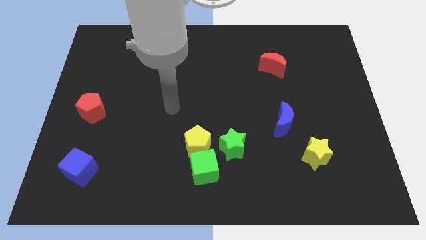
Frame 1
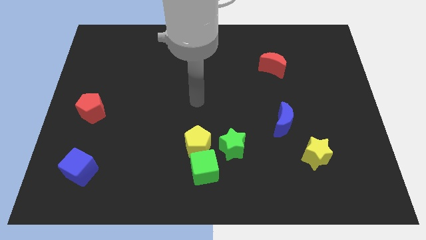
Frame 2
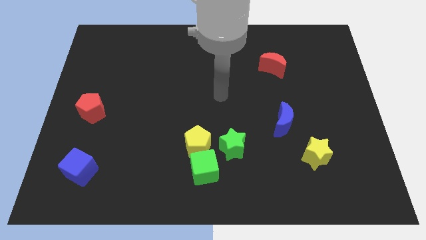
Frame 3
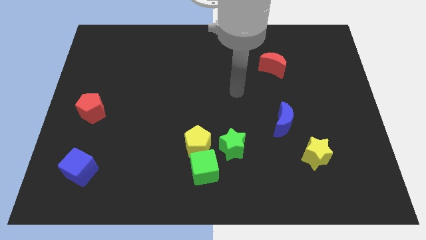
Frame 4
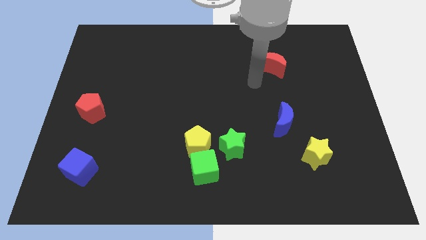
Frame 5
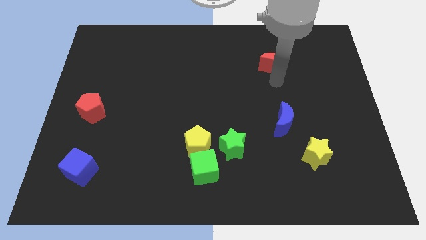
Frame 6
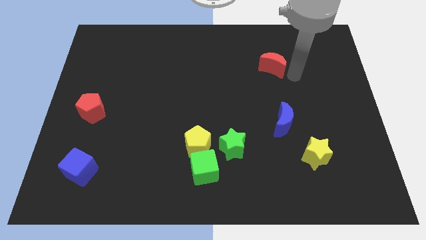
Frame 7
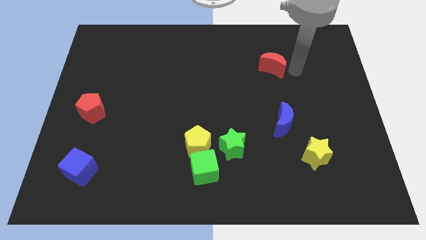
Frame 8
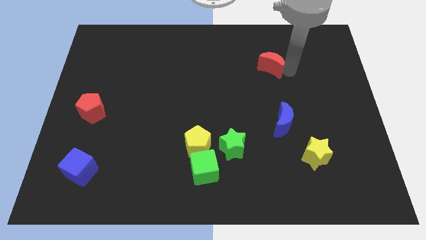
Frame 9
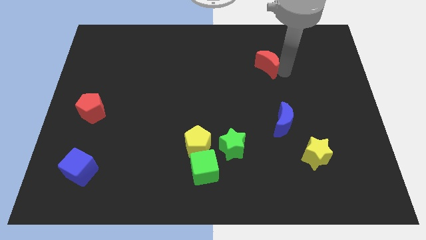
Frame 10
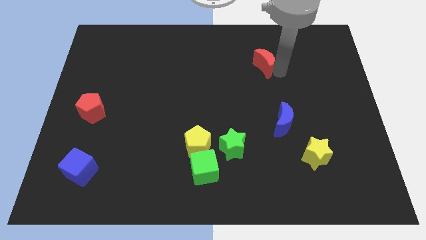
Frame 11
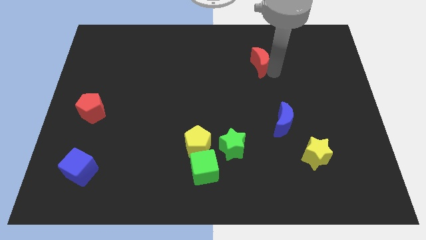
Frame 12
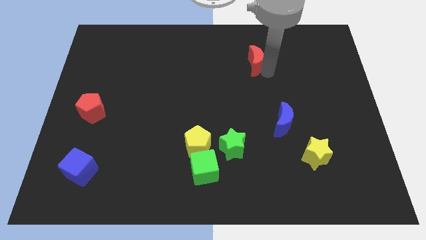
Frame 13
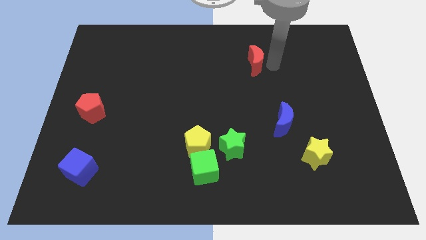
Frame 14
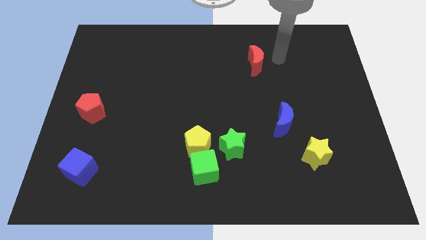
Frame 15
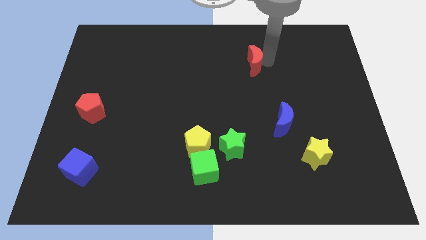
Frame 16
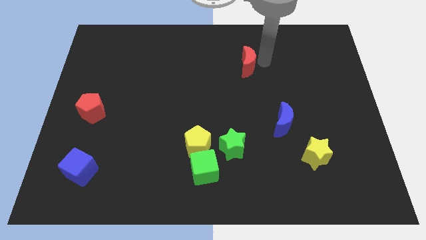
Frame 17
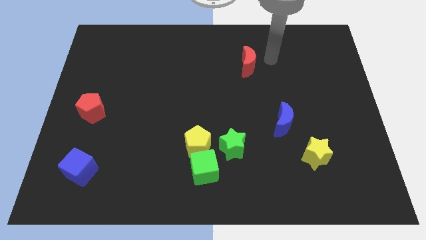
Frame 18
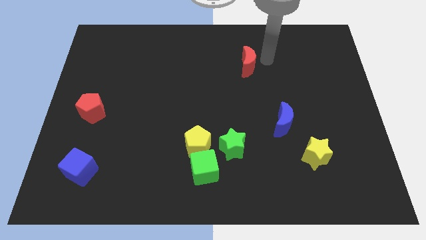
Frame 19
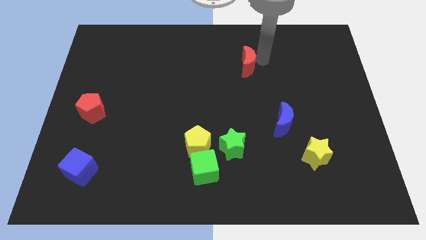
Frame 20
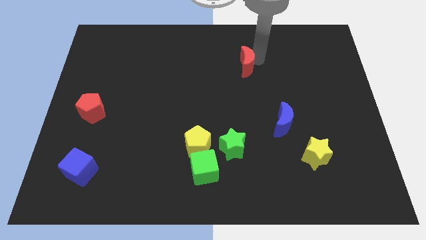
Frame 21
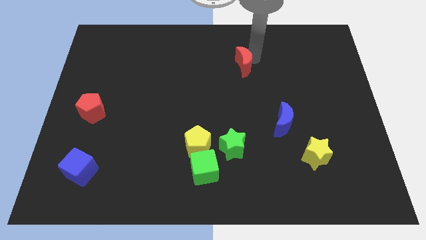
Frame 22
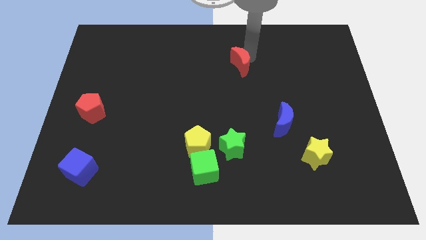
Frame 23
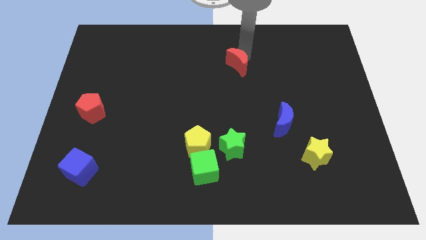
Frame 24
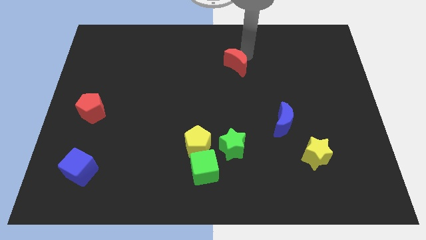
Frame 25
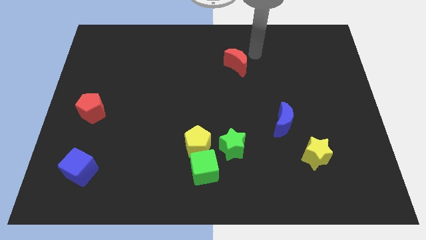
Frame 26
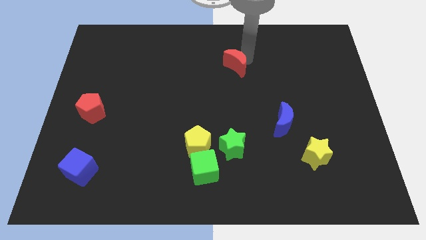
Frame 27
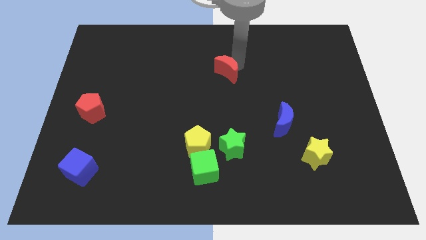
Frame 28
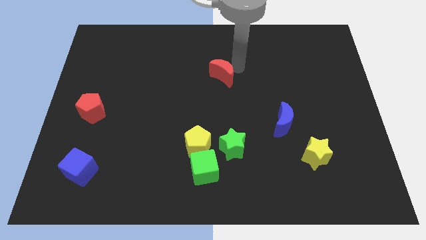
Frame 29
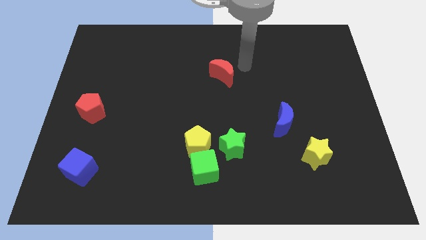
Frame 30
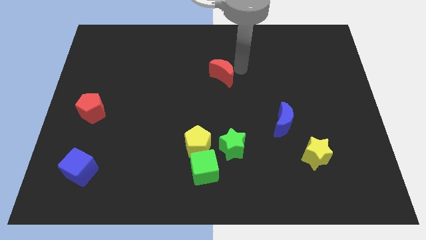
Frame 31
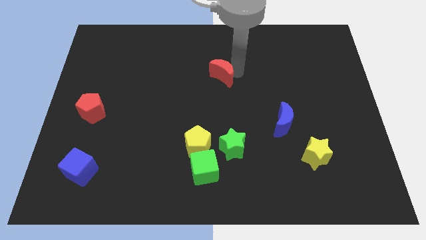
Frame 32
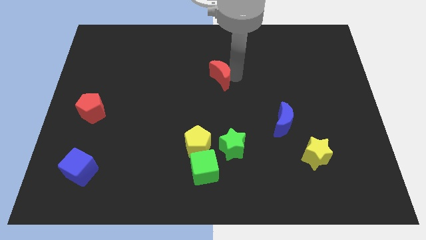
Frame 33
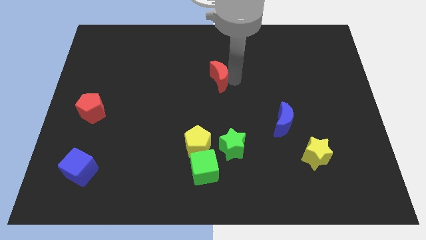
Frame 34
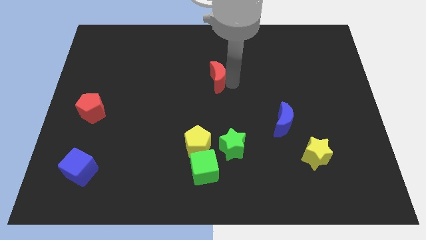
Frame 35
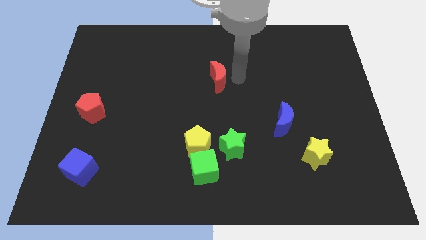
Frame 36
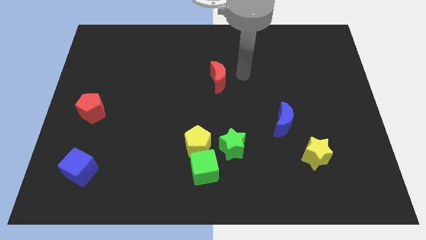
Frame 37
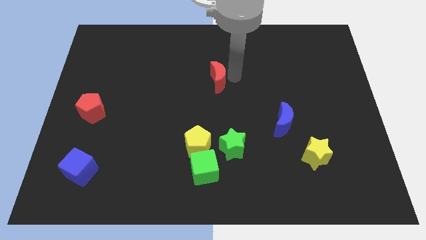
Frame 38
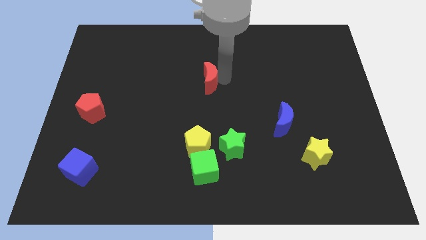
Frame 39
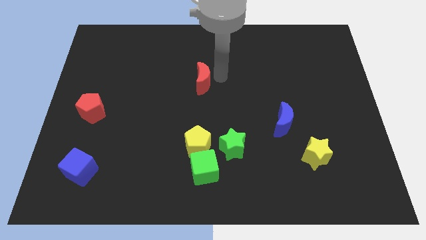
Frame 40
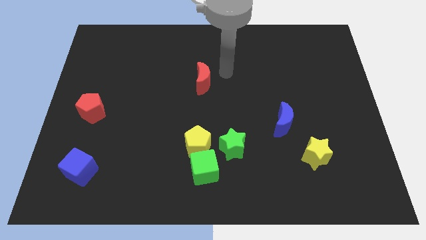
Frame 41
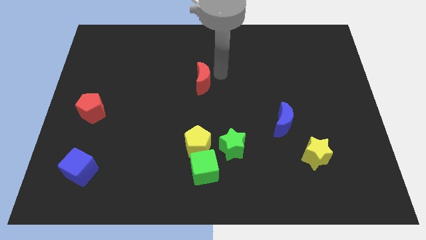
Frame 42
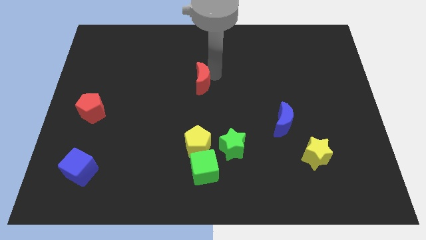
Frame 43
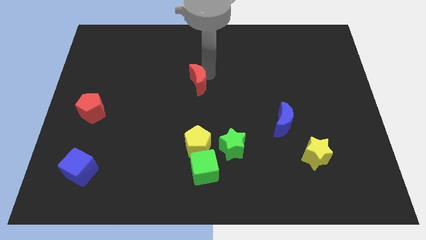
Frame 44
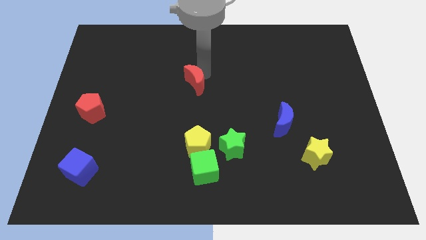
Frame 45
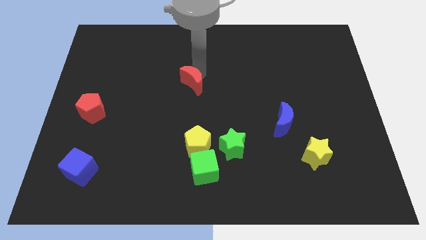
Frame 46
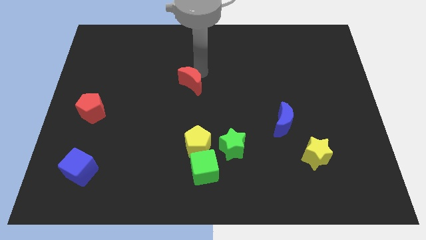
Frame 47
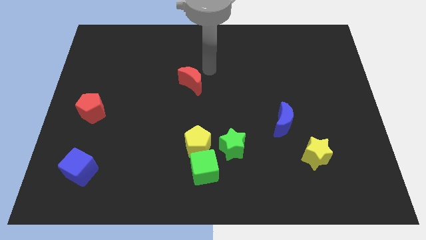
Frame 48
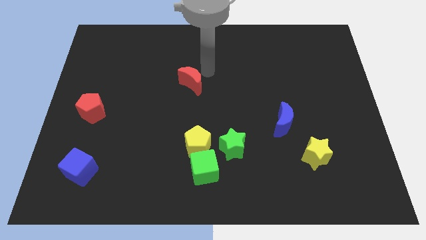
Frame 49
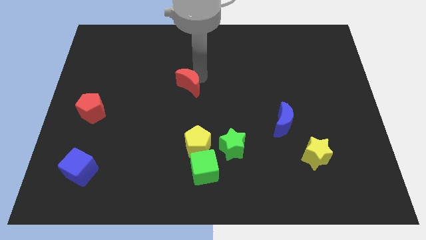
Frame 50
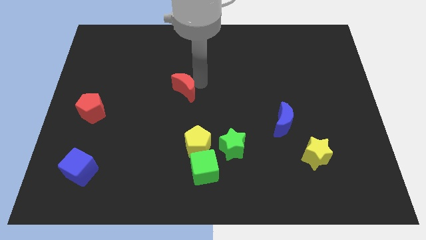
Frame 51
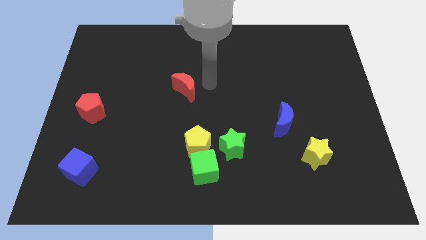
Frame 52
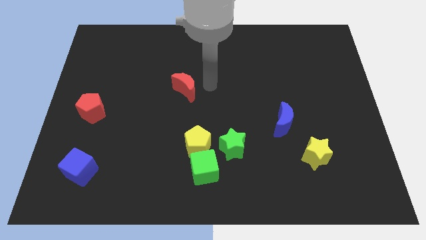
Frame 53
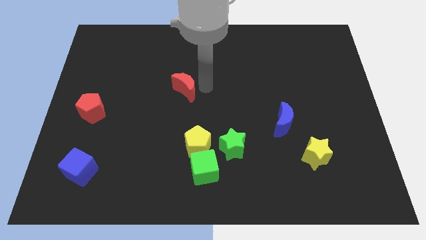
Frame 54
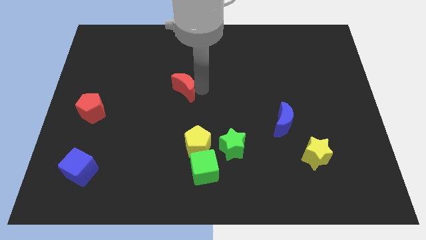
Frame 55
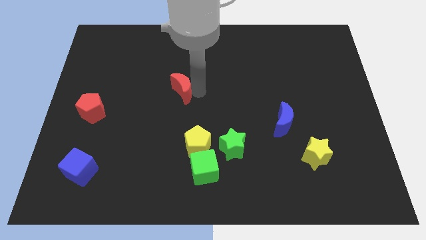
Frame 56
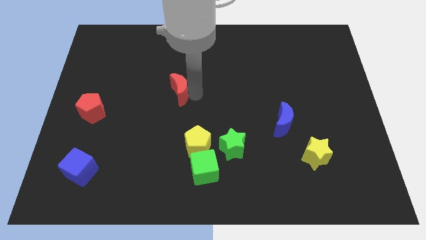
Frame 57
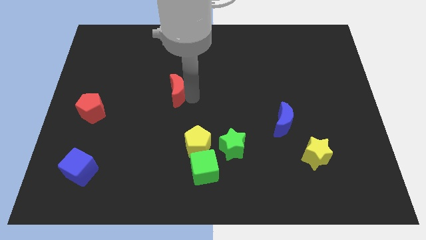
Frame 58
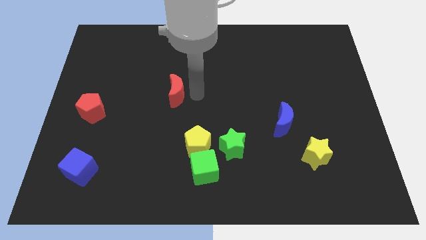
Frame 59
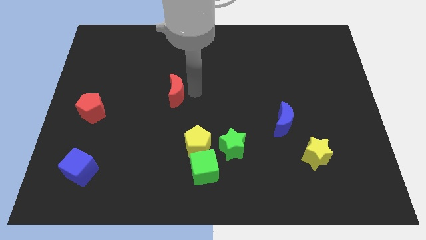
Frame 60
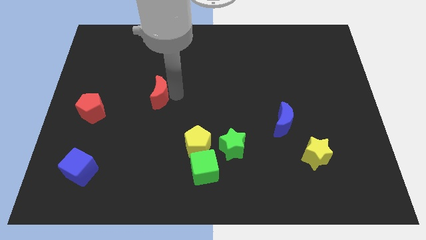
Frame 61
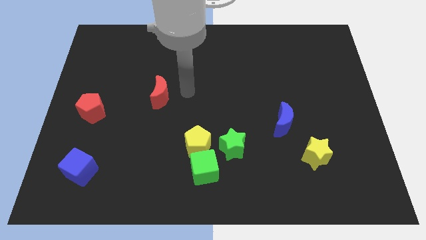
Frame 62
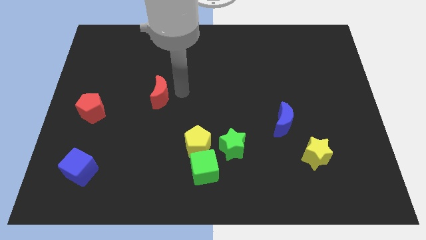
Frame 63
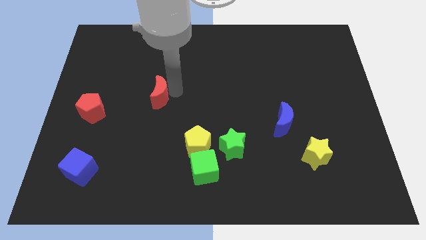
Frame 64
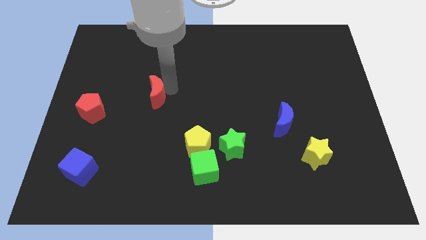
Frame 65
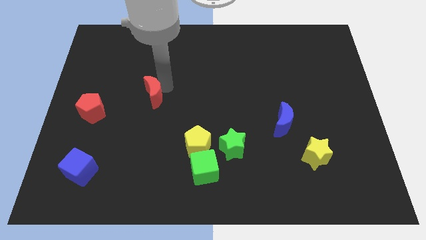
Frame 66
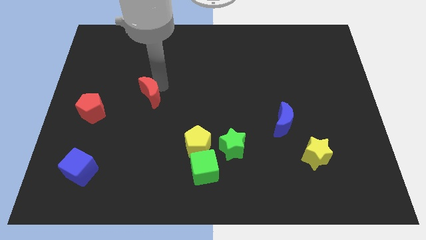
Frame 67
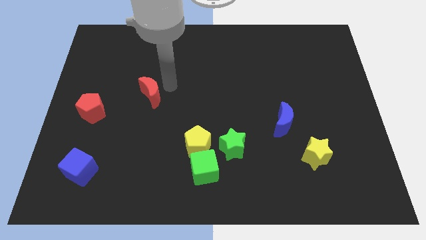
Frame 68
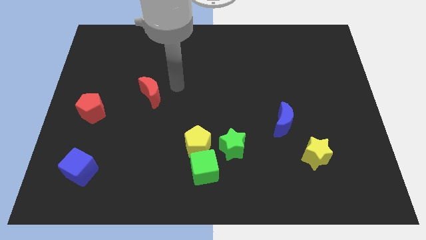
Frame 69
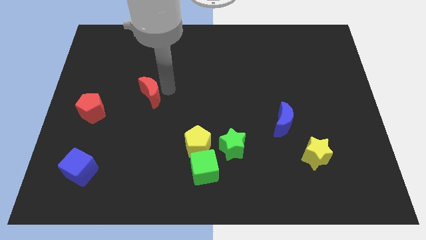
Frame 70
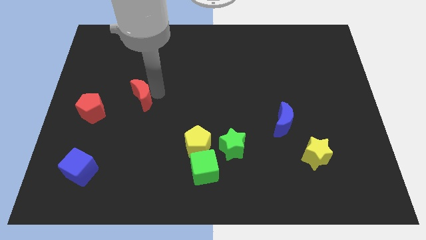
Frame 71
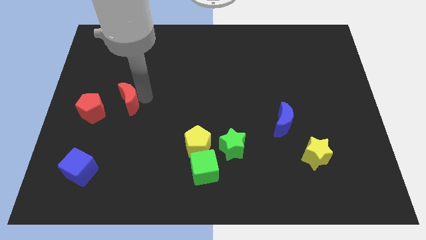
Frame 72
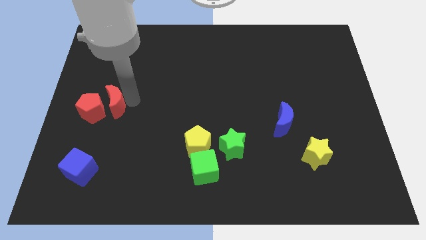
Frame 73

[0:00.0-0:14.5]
slide the red moon next to the red pentagon

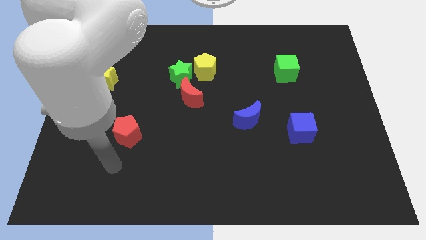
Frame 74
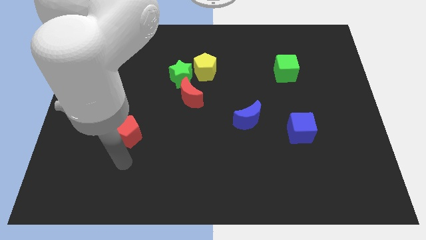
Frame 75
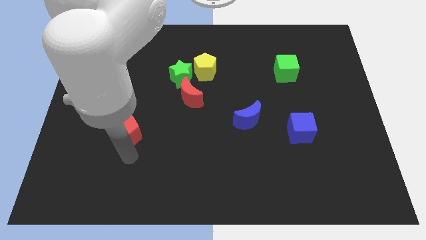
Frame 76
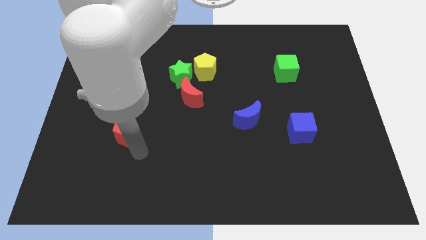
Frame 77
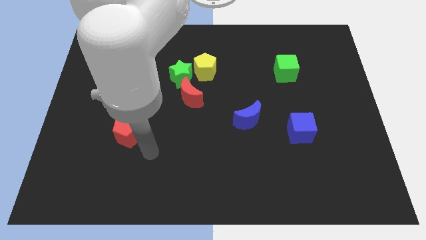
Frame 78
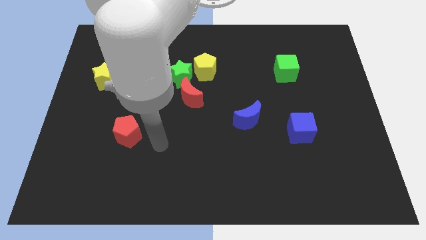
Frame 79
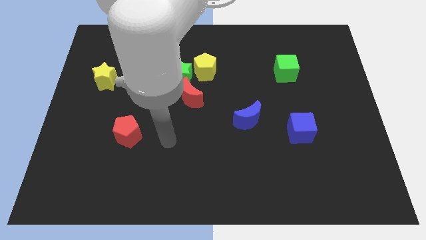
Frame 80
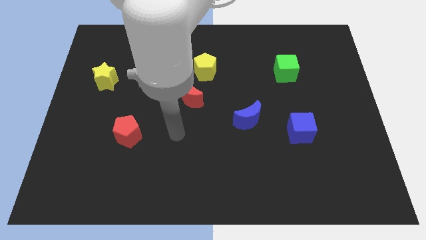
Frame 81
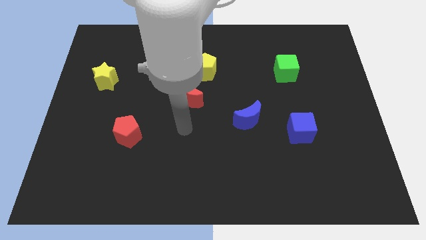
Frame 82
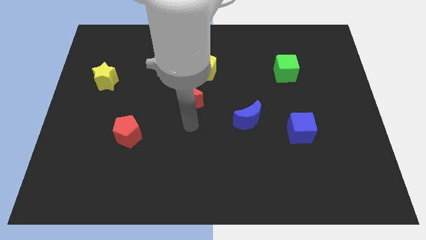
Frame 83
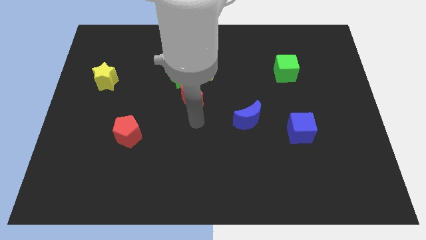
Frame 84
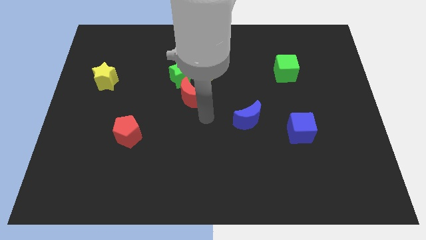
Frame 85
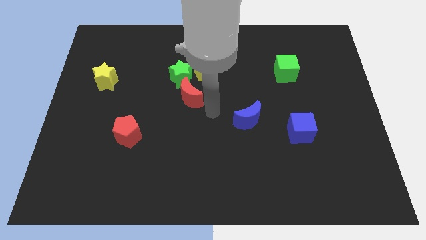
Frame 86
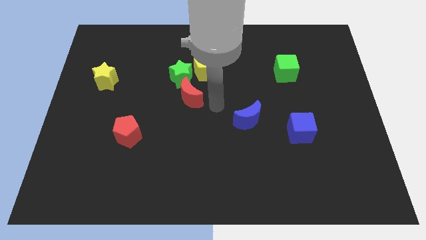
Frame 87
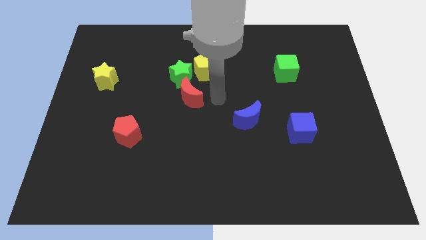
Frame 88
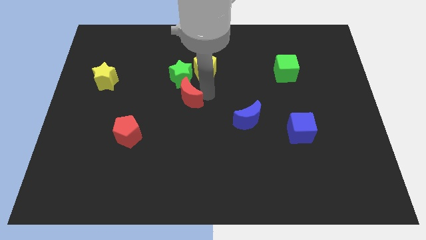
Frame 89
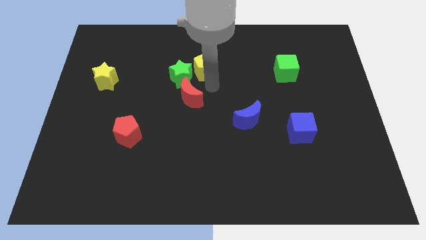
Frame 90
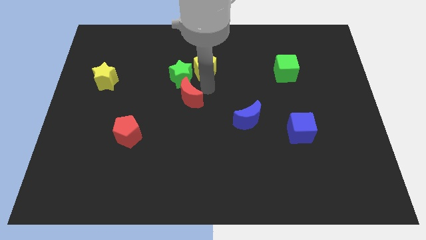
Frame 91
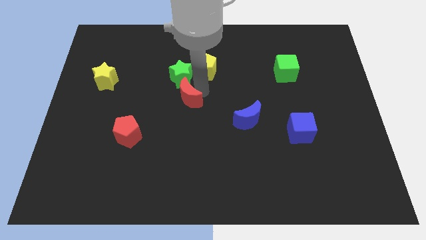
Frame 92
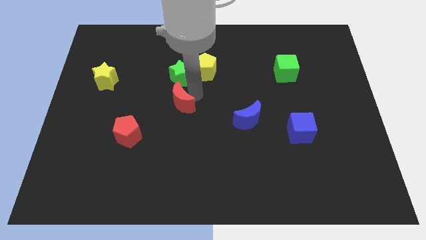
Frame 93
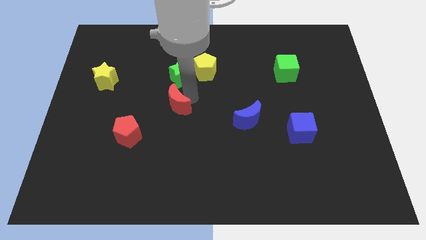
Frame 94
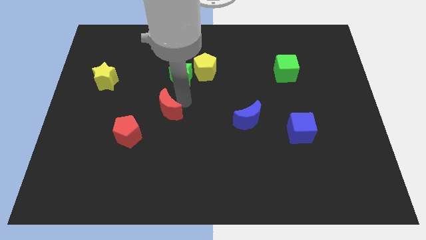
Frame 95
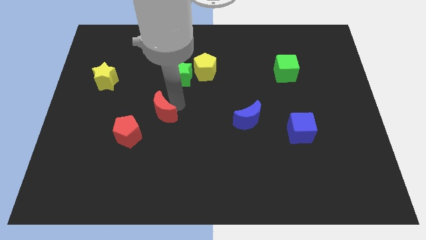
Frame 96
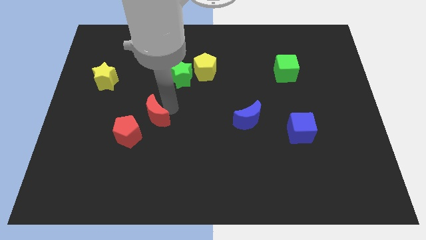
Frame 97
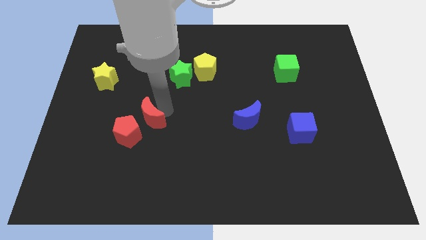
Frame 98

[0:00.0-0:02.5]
push the red moon to the red pentagon
